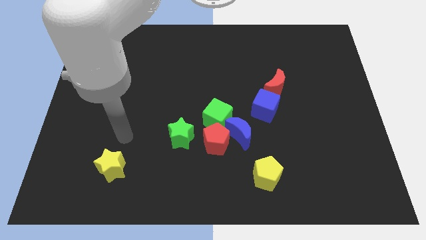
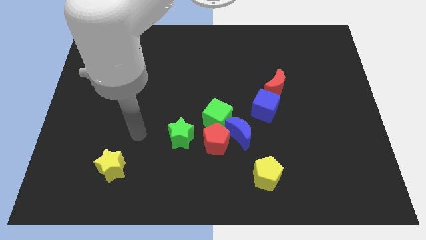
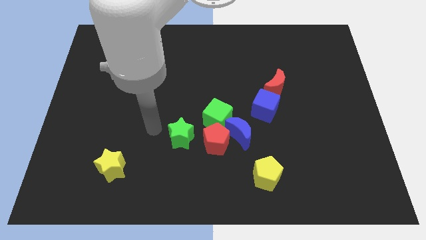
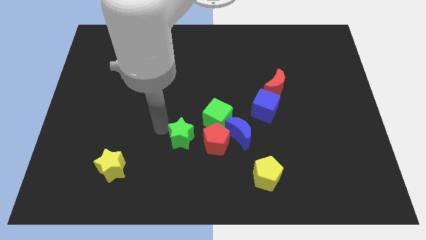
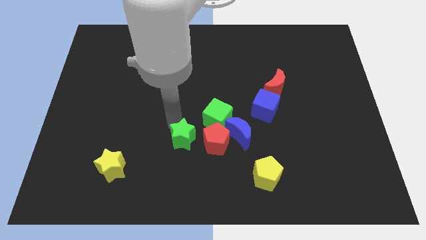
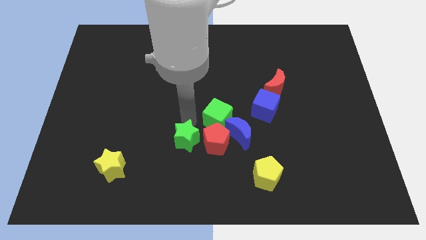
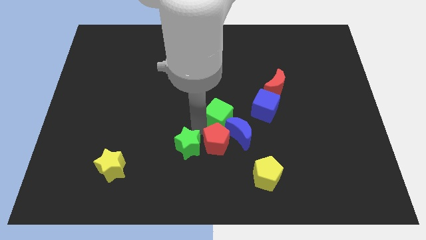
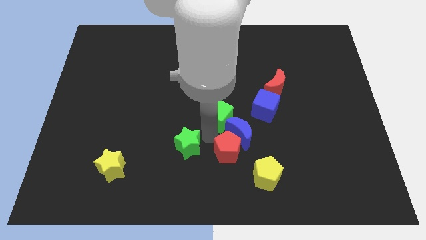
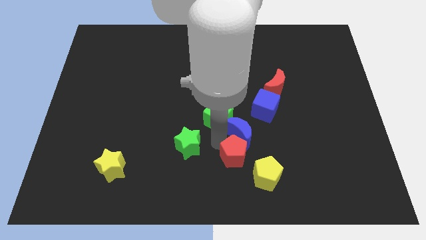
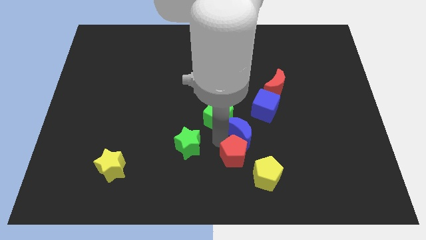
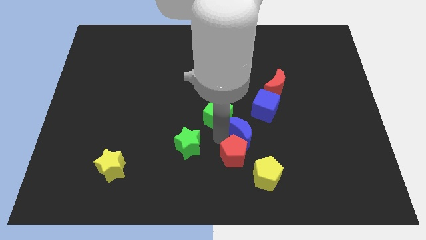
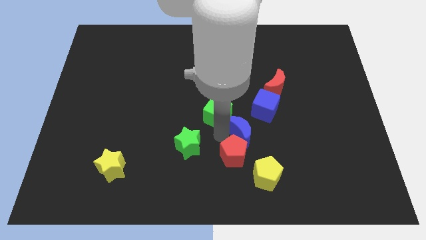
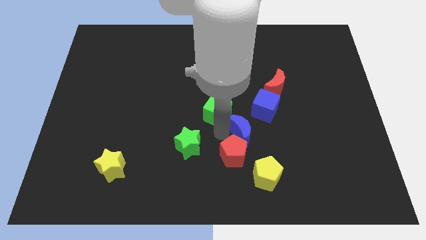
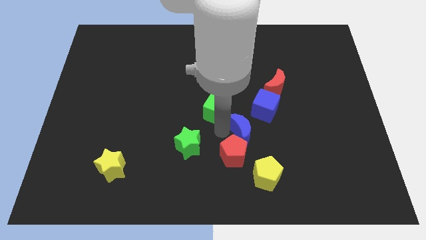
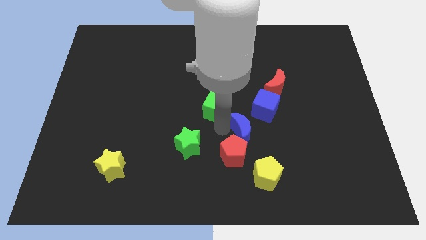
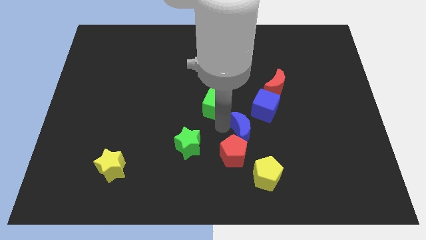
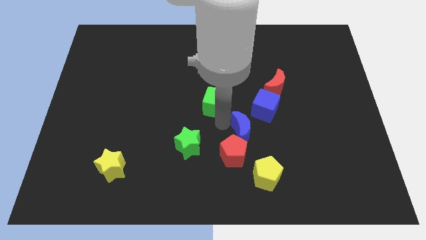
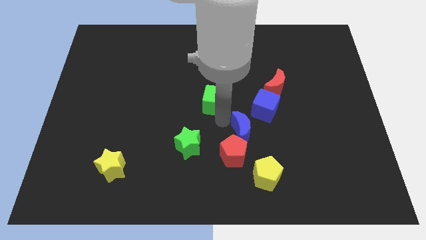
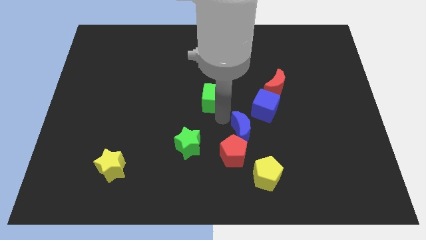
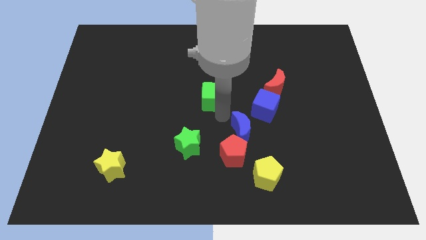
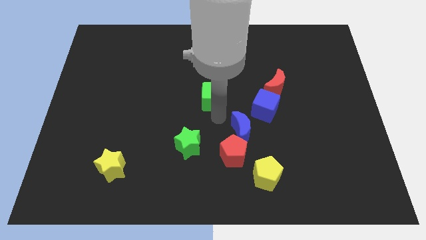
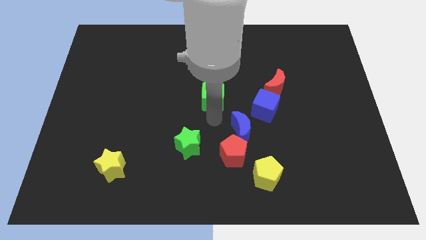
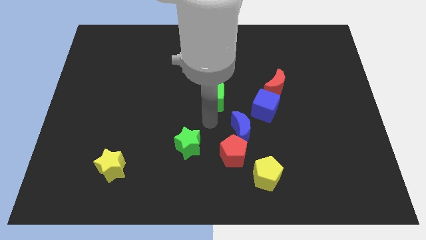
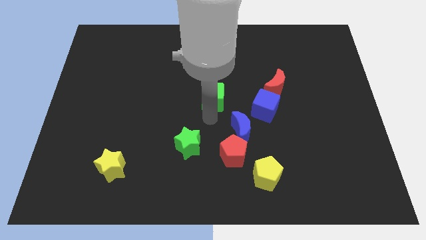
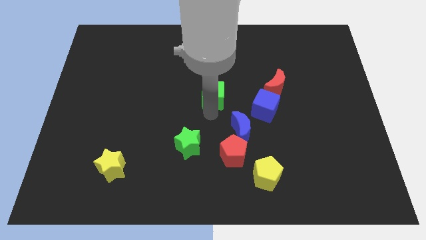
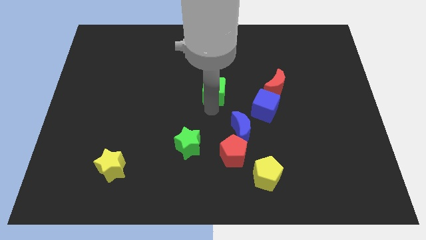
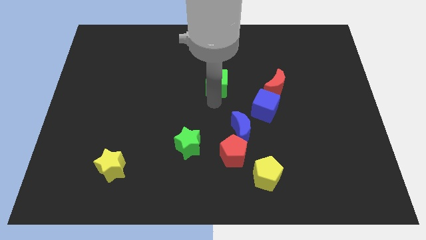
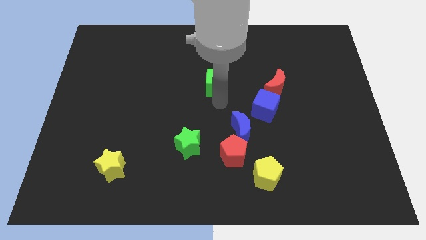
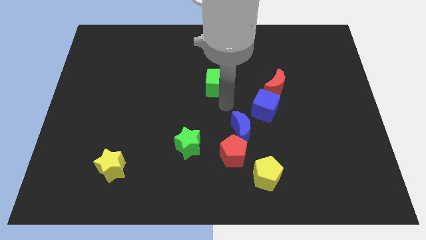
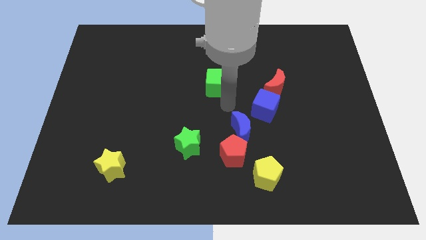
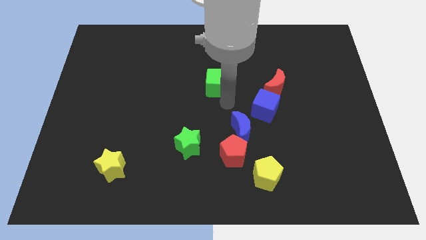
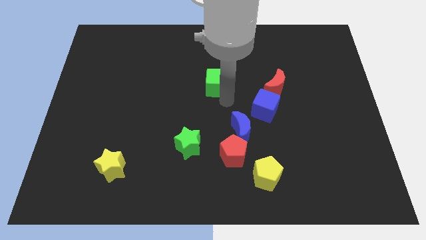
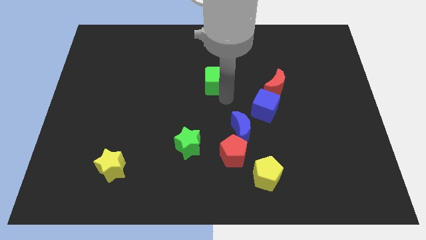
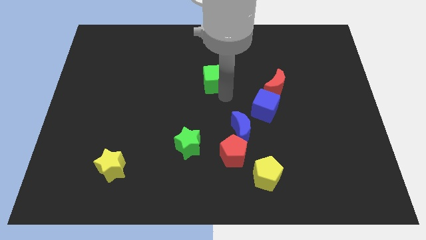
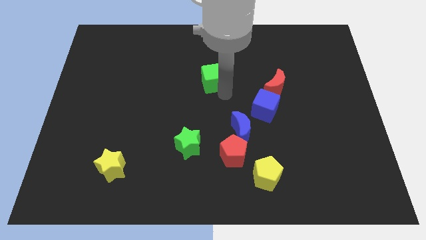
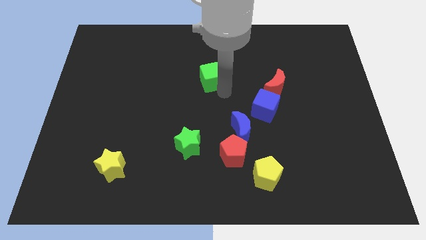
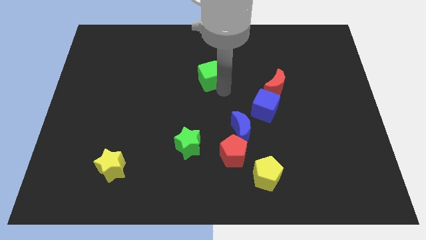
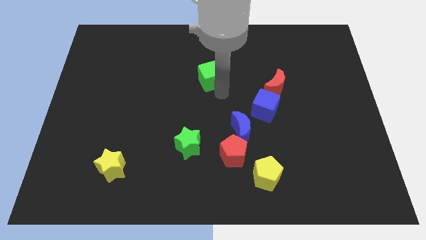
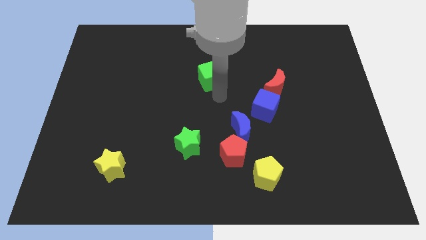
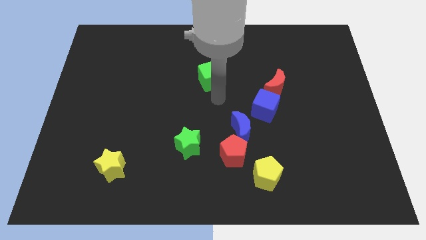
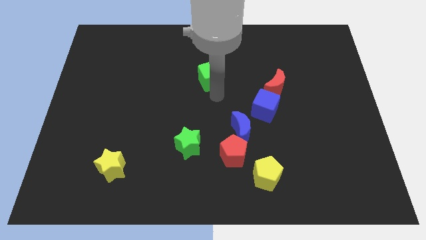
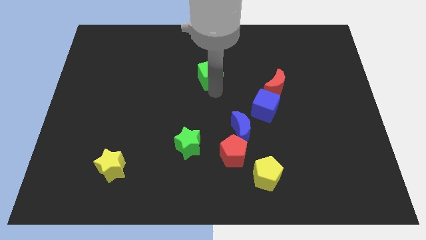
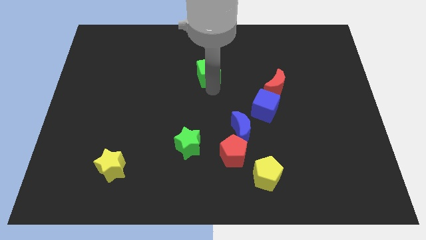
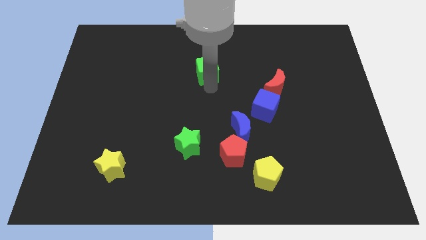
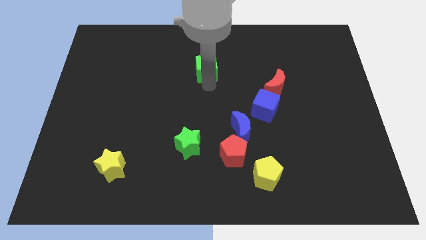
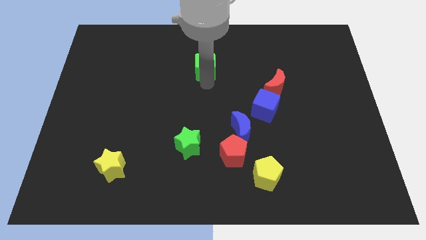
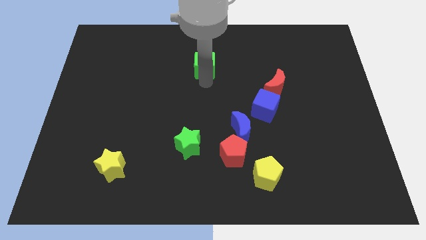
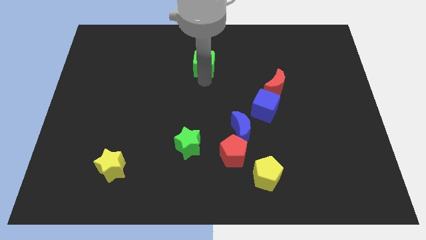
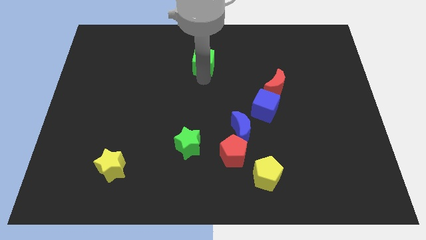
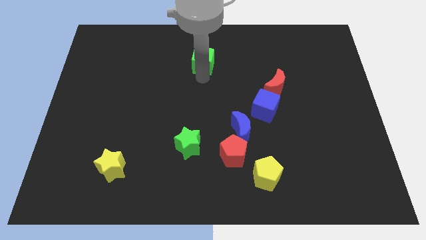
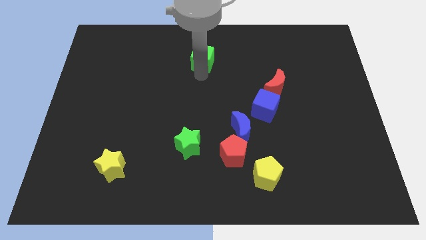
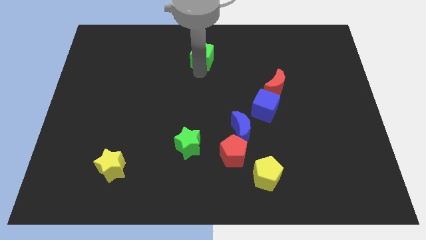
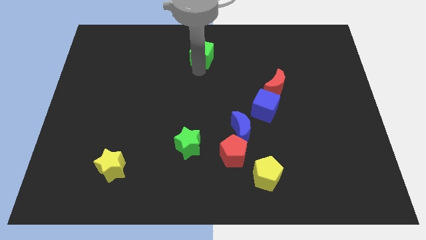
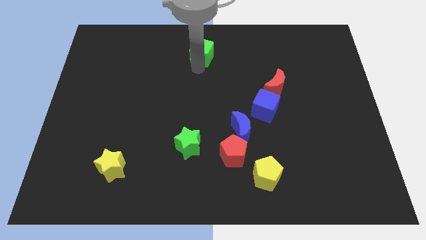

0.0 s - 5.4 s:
push the green cube to the towards your base

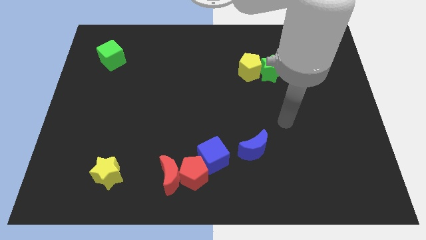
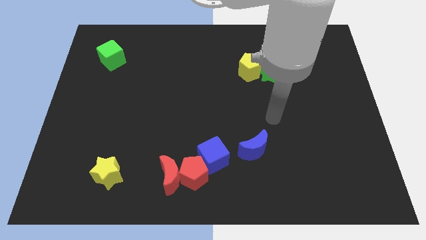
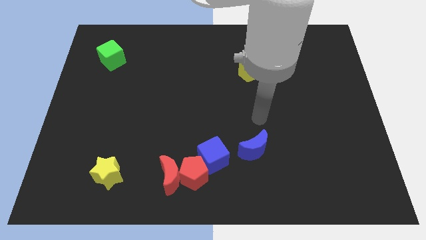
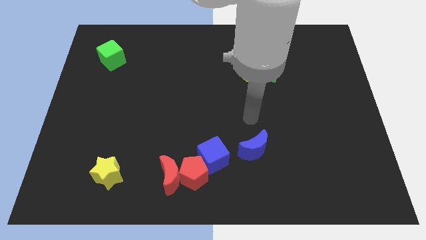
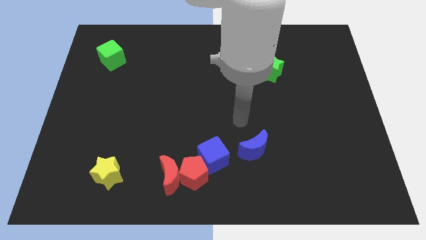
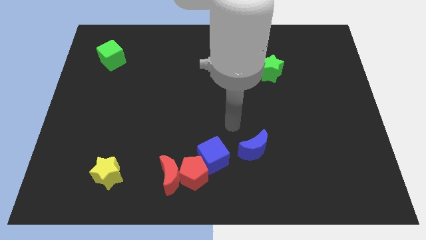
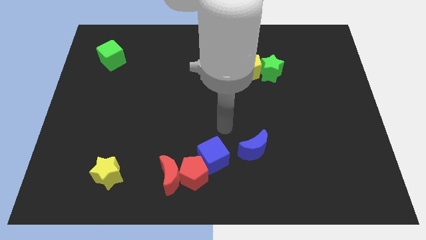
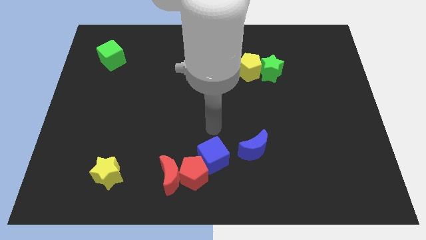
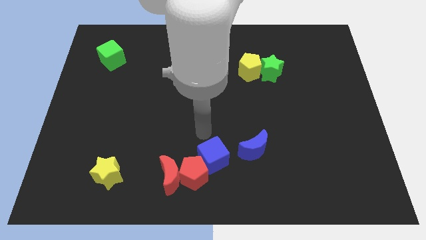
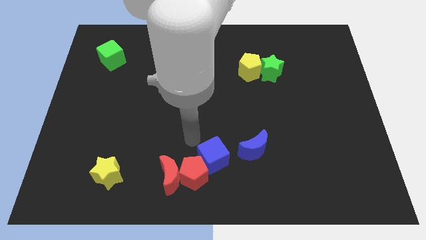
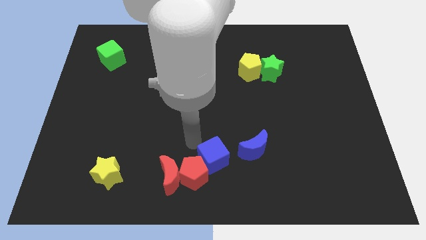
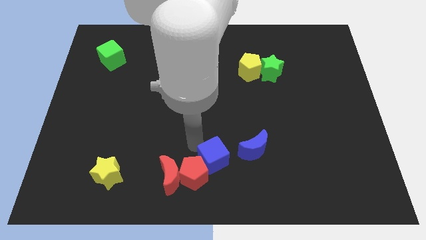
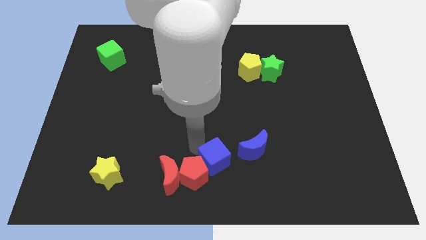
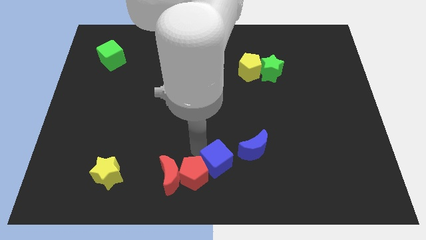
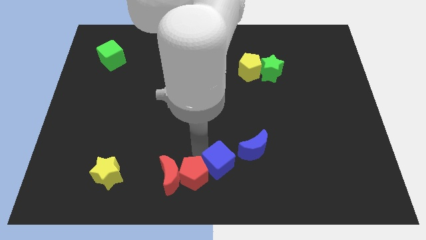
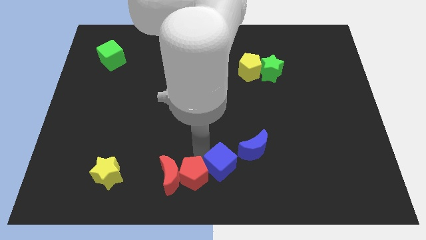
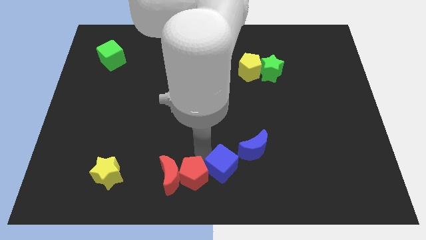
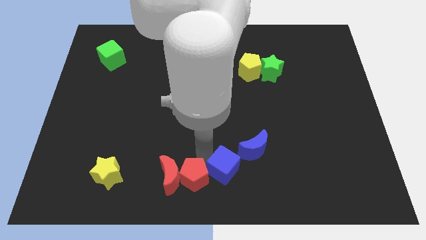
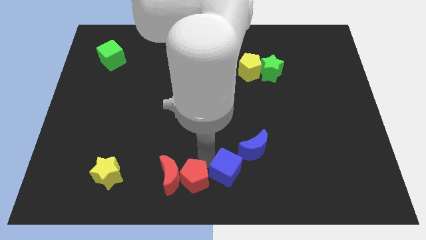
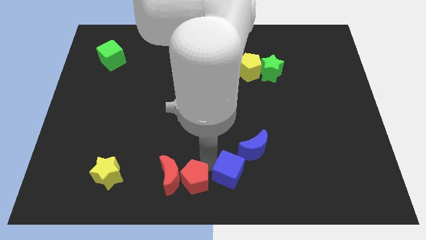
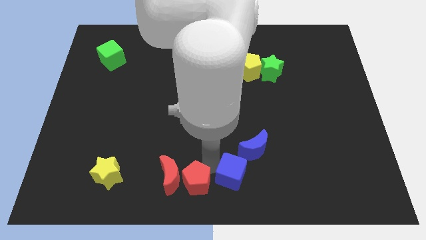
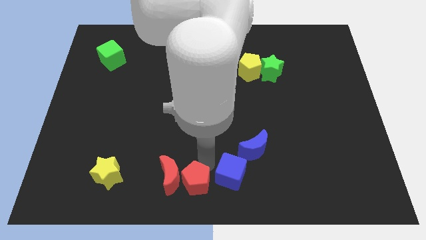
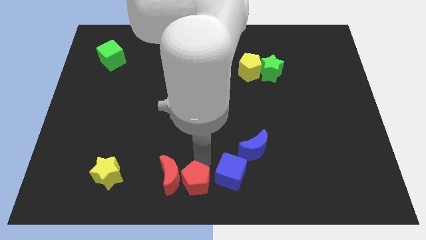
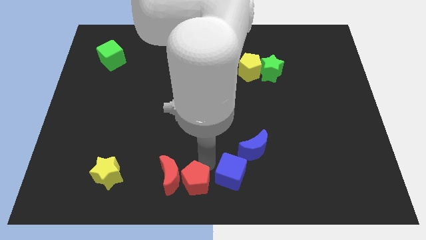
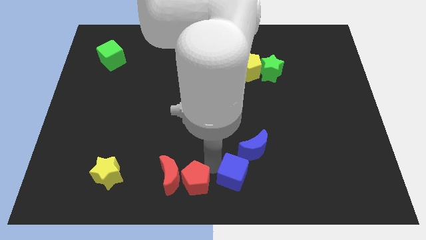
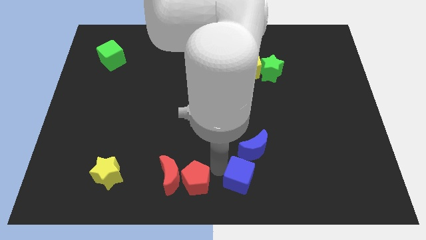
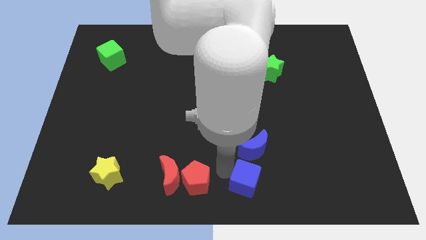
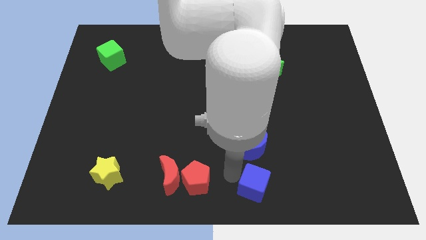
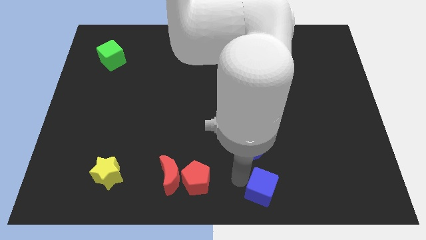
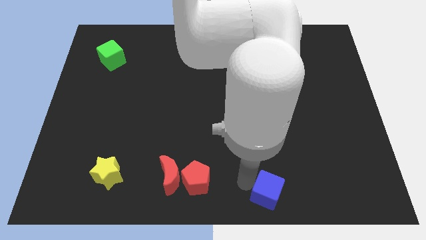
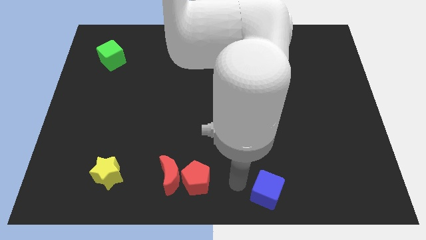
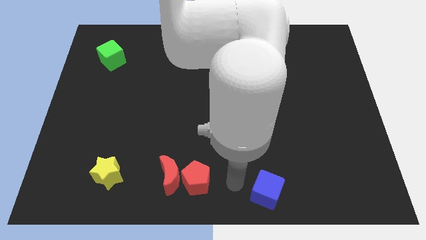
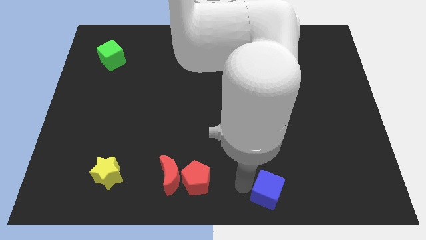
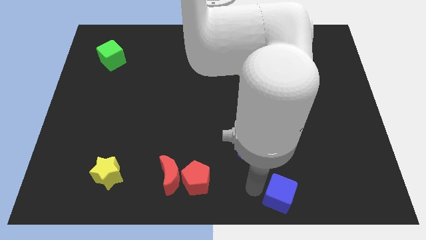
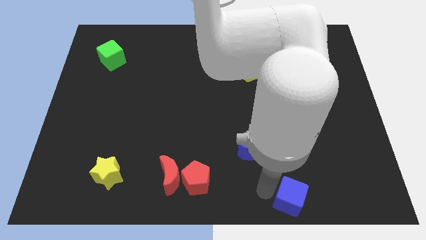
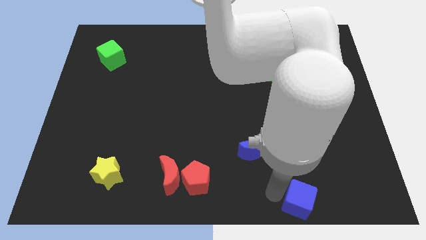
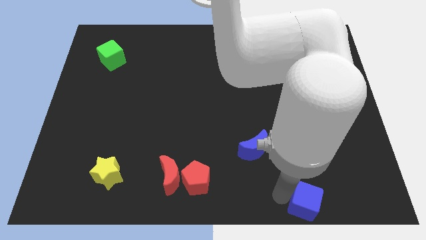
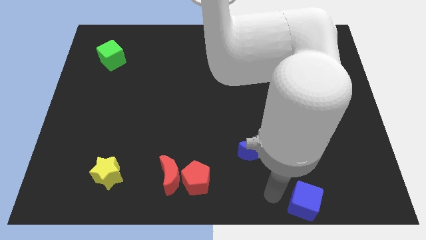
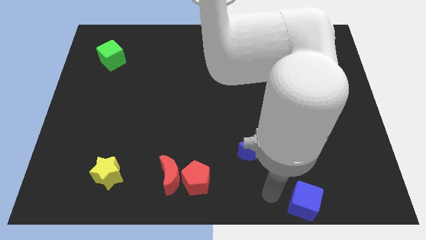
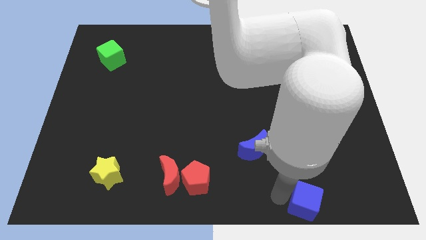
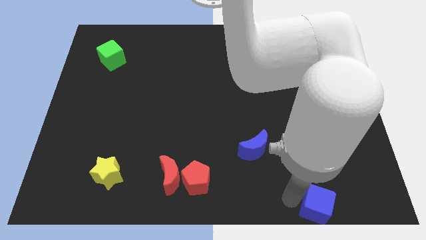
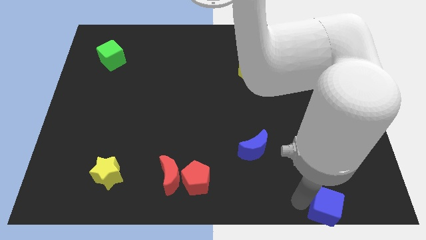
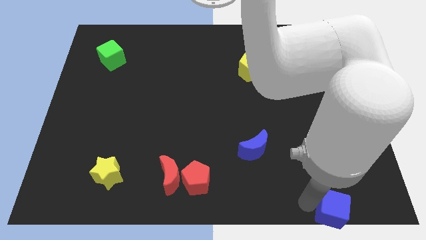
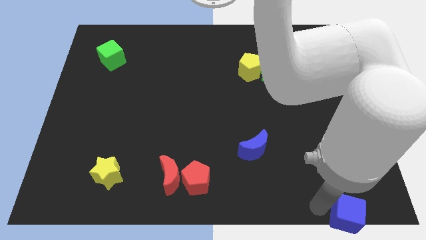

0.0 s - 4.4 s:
slide the blue cube to the bottom right
